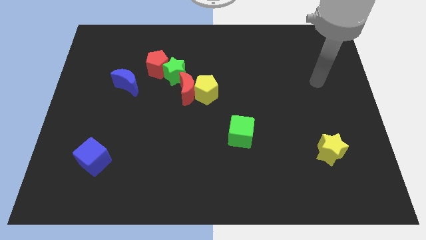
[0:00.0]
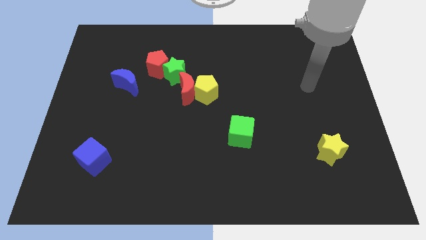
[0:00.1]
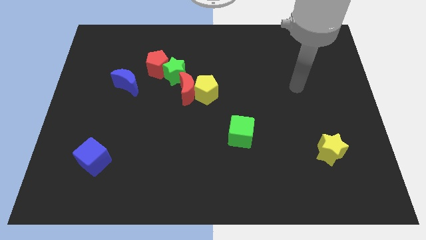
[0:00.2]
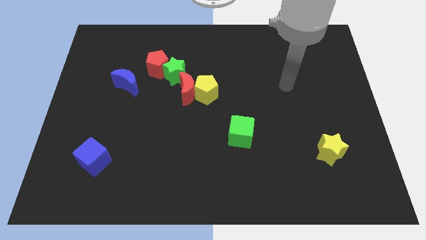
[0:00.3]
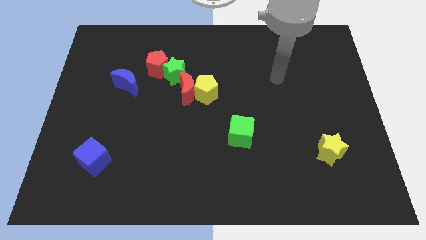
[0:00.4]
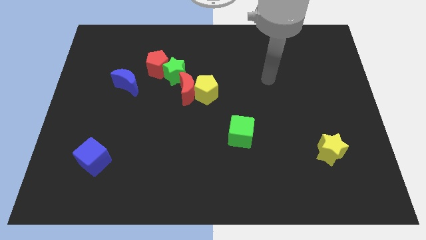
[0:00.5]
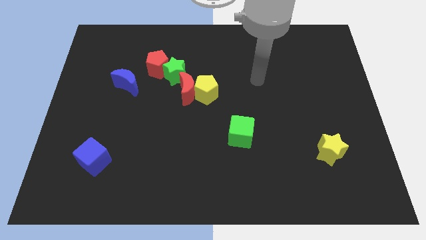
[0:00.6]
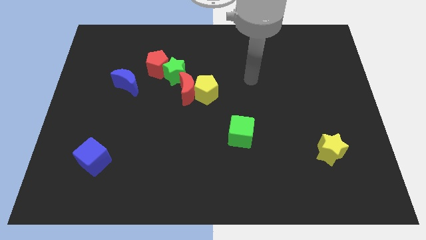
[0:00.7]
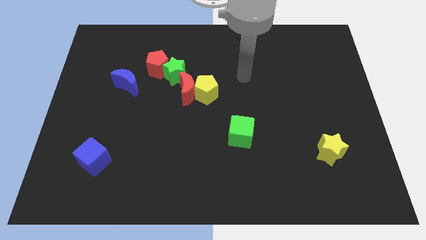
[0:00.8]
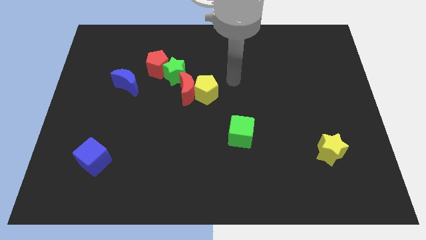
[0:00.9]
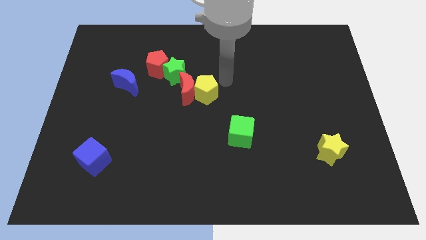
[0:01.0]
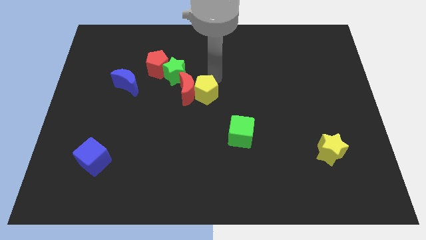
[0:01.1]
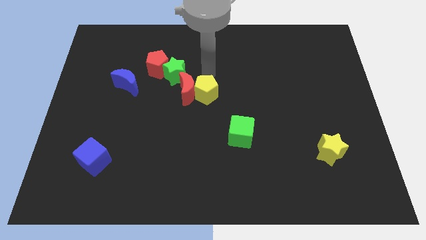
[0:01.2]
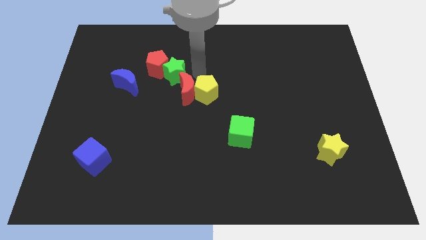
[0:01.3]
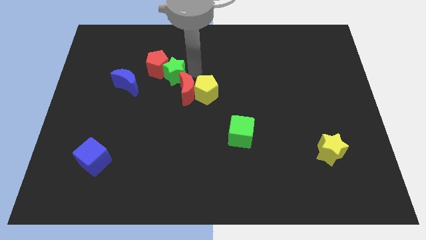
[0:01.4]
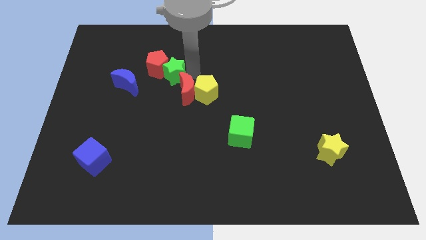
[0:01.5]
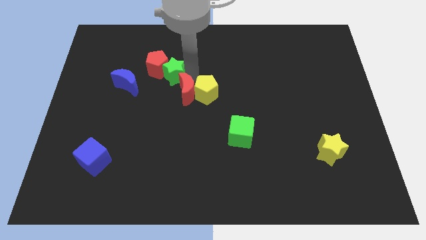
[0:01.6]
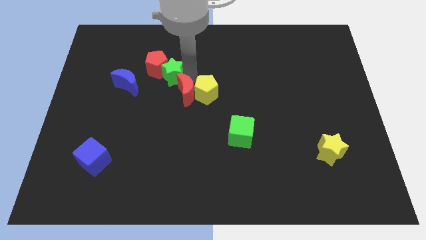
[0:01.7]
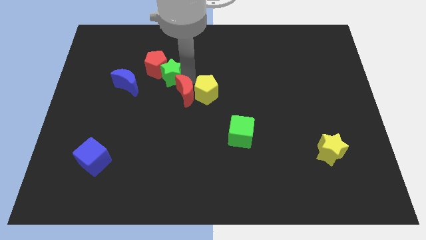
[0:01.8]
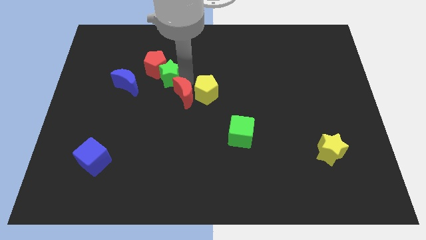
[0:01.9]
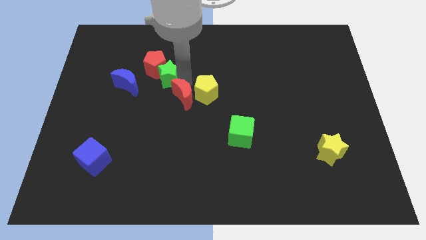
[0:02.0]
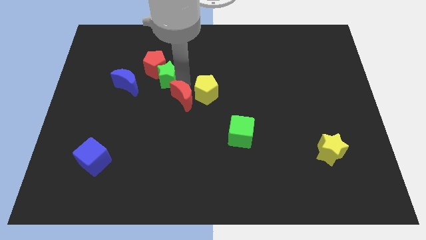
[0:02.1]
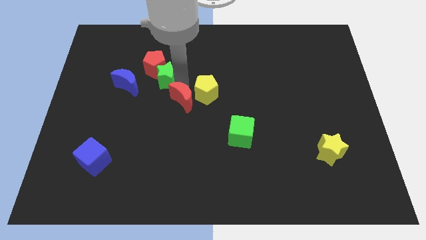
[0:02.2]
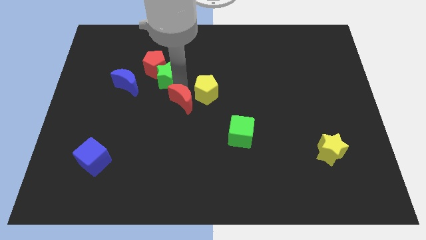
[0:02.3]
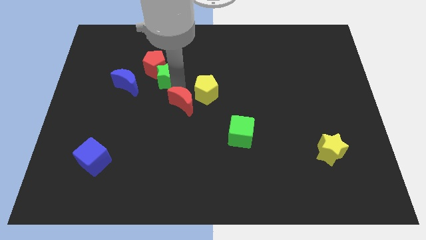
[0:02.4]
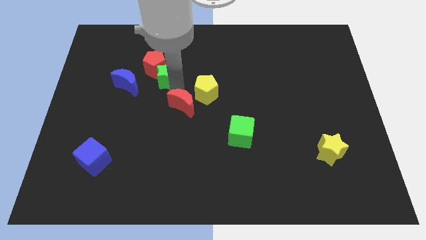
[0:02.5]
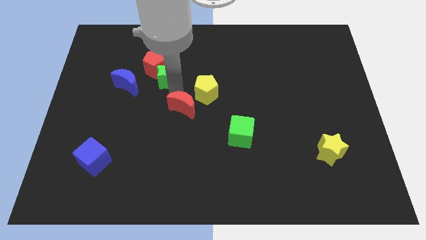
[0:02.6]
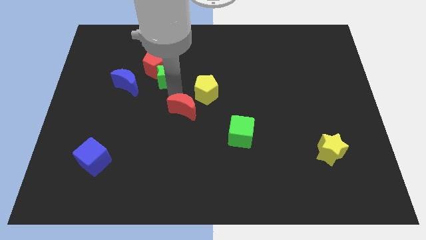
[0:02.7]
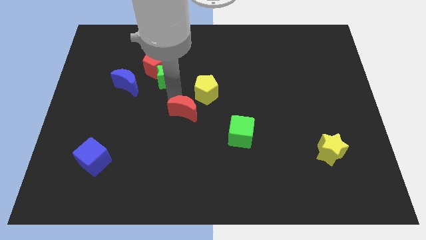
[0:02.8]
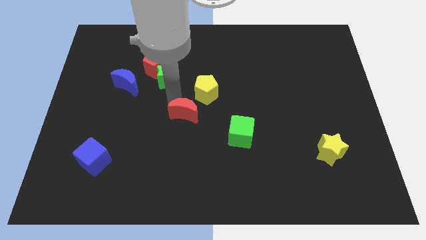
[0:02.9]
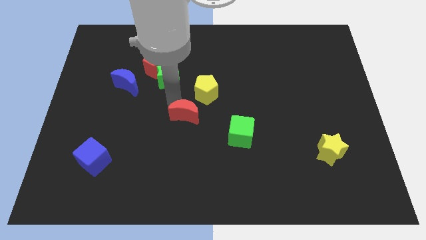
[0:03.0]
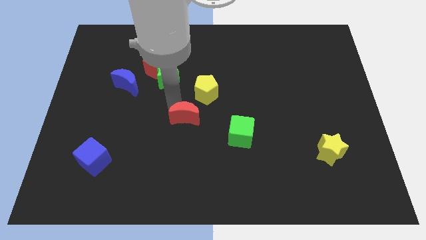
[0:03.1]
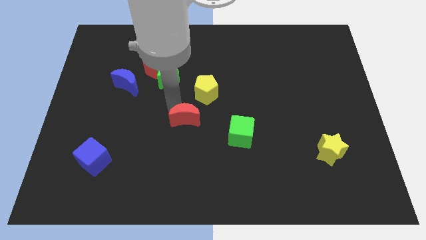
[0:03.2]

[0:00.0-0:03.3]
separate the red moon from the yellow pentagon and green star

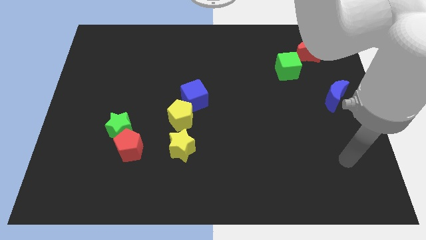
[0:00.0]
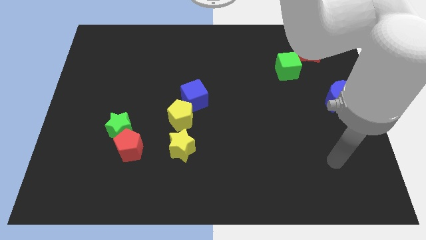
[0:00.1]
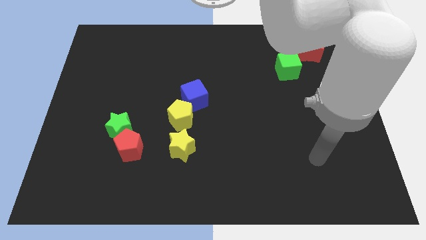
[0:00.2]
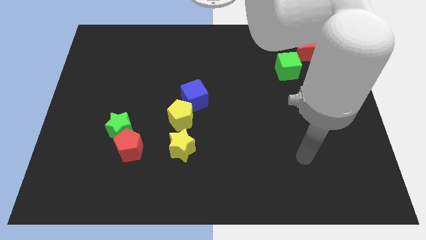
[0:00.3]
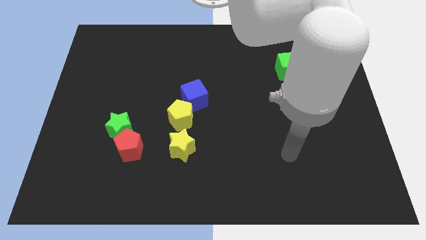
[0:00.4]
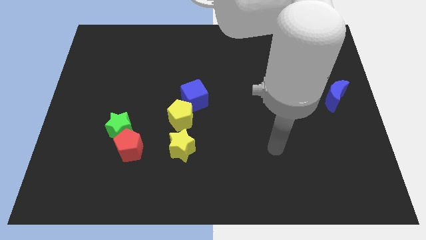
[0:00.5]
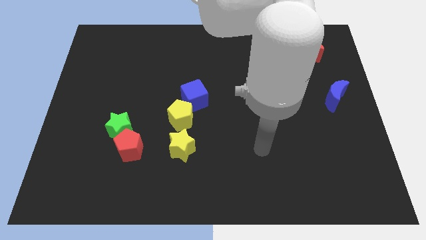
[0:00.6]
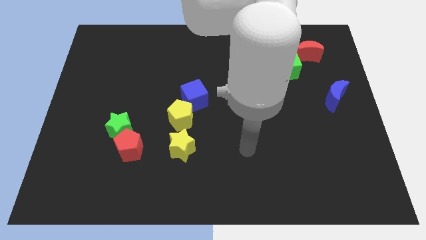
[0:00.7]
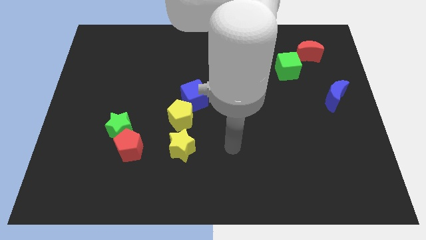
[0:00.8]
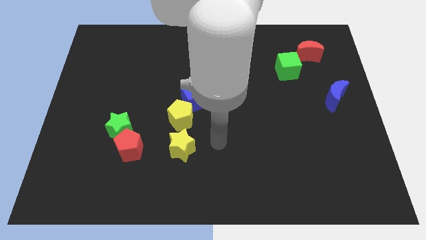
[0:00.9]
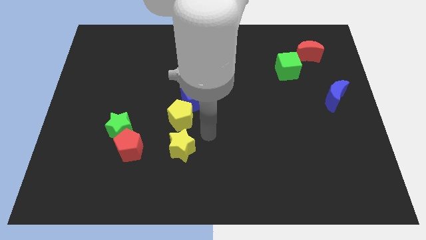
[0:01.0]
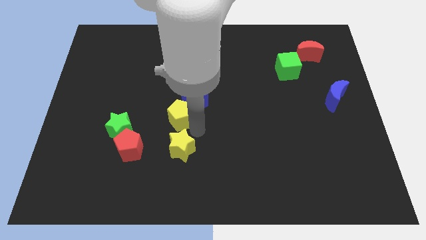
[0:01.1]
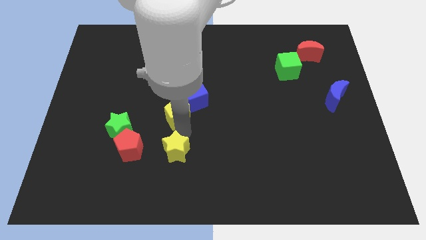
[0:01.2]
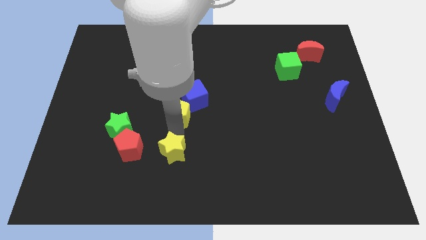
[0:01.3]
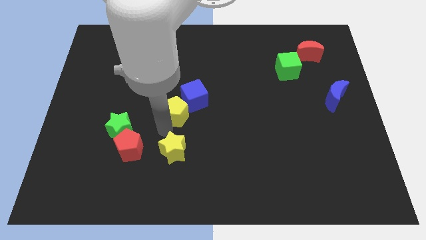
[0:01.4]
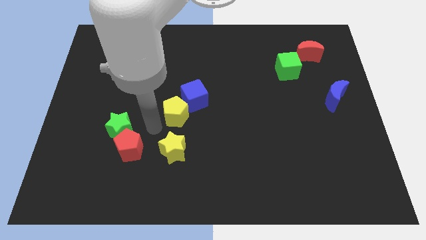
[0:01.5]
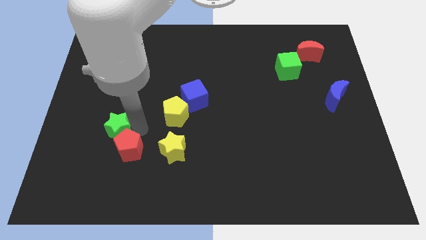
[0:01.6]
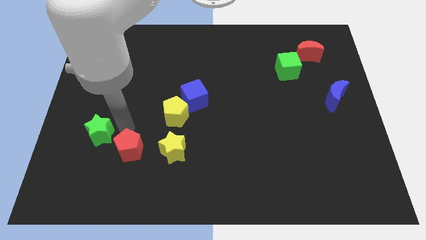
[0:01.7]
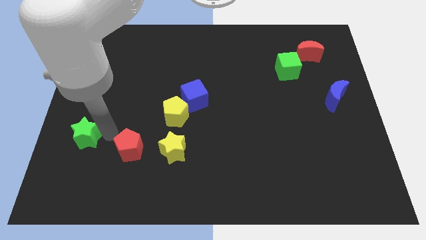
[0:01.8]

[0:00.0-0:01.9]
separate the red pentagon from the green star

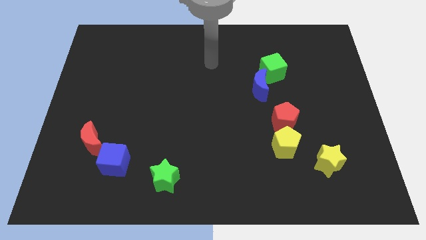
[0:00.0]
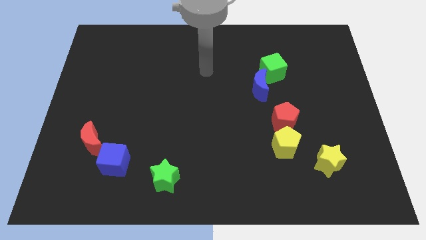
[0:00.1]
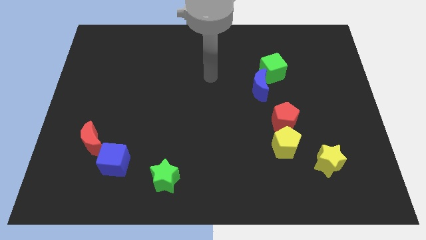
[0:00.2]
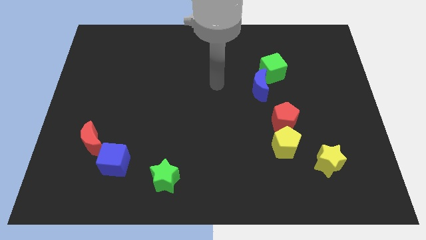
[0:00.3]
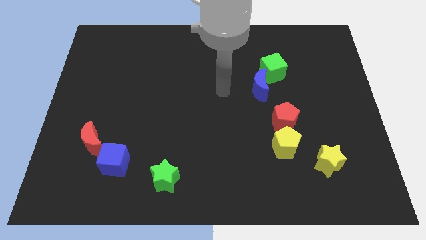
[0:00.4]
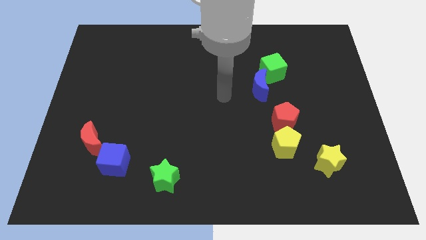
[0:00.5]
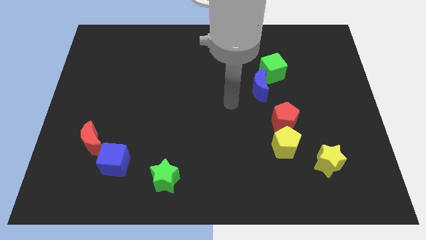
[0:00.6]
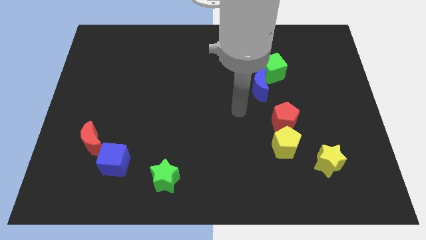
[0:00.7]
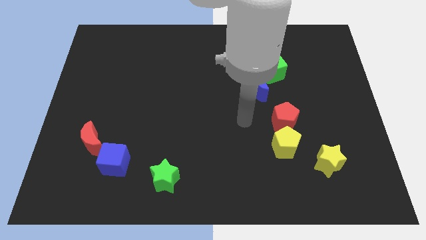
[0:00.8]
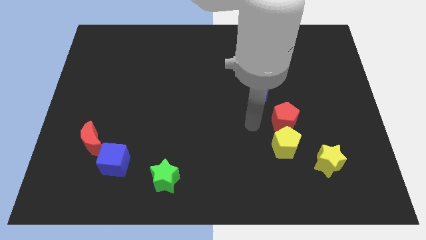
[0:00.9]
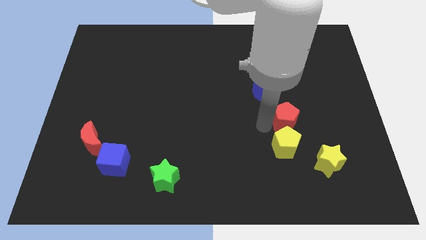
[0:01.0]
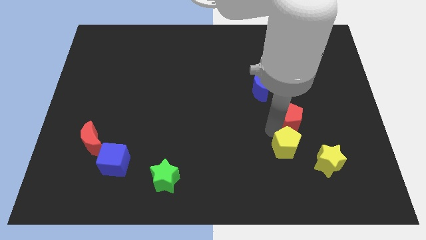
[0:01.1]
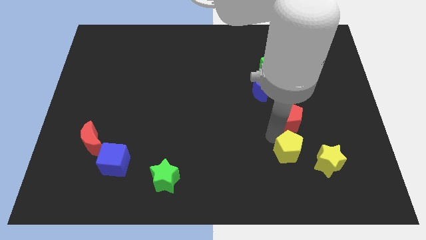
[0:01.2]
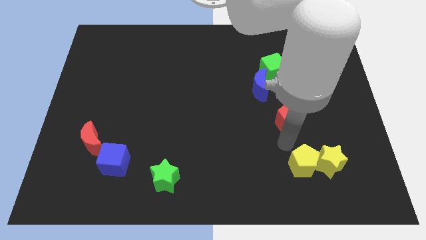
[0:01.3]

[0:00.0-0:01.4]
pull the red pentagon apart from the yellow pentagon

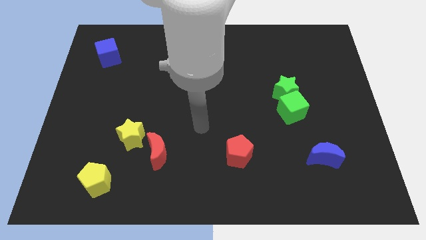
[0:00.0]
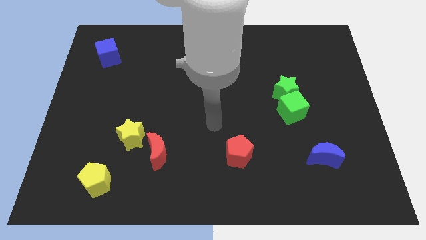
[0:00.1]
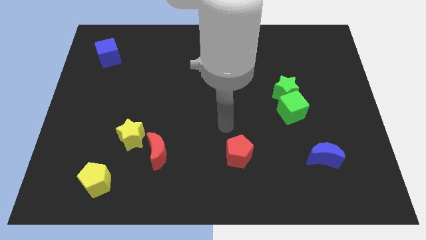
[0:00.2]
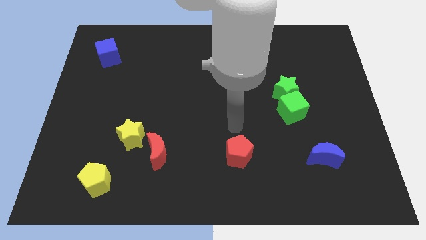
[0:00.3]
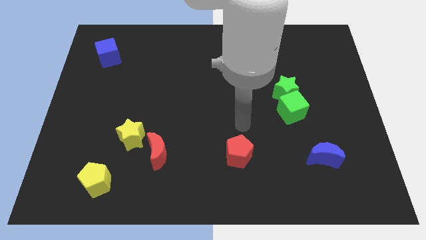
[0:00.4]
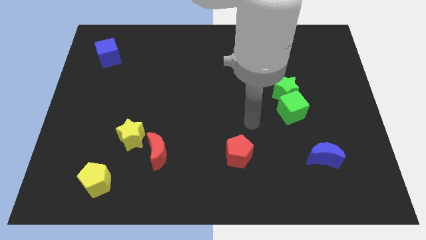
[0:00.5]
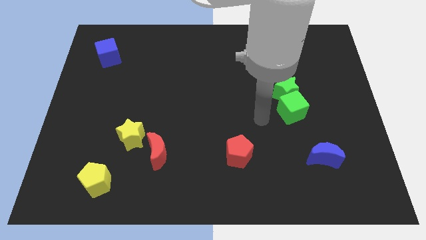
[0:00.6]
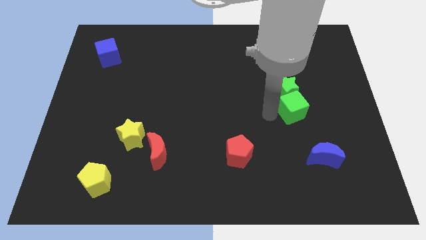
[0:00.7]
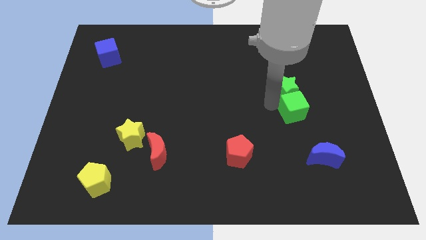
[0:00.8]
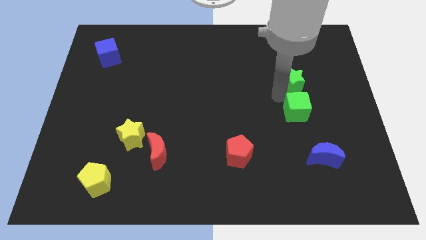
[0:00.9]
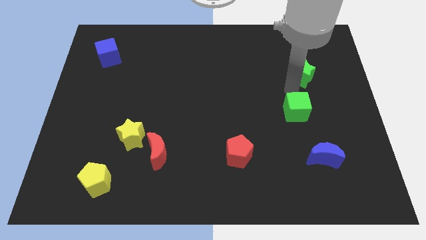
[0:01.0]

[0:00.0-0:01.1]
separate the green cube from the green star

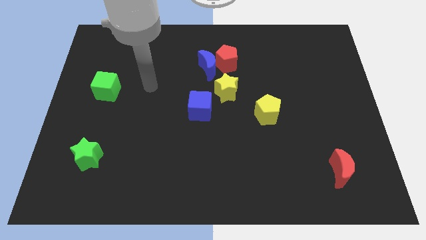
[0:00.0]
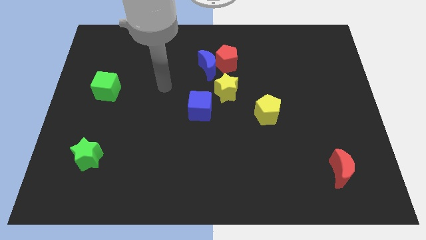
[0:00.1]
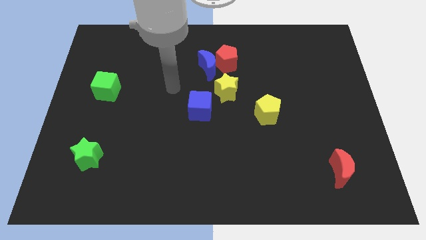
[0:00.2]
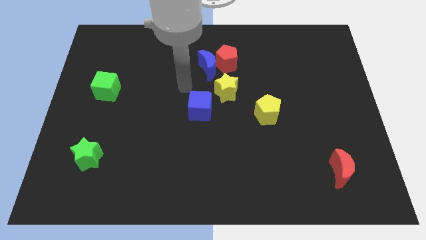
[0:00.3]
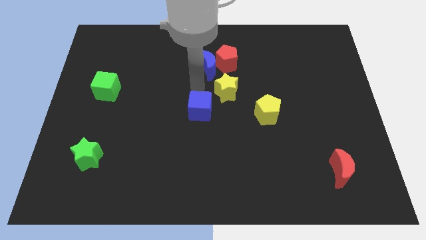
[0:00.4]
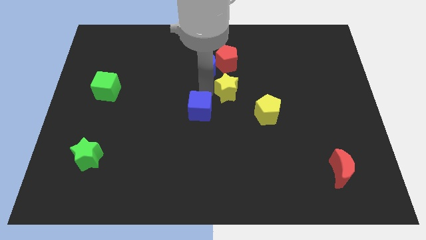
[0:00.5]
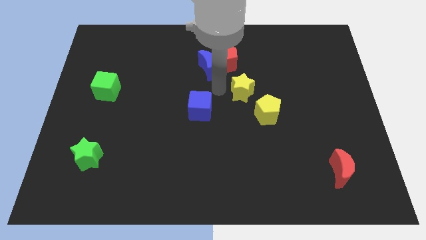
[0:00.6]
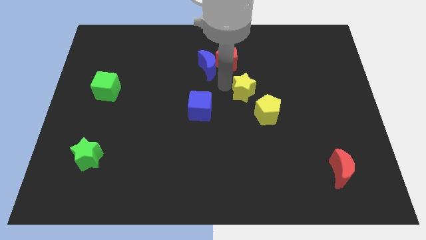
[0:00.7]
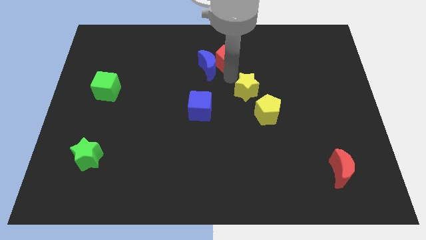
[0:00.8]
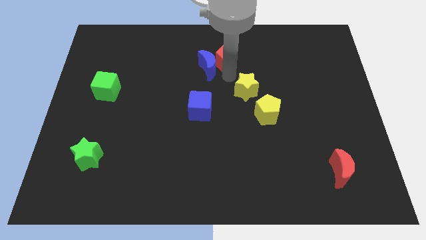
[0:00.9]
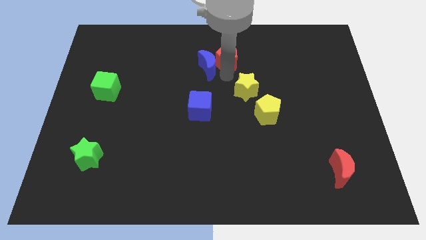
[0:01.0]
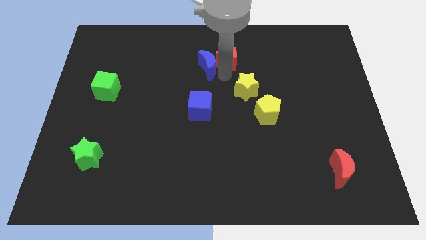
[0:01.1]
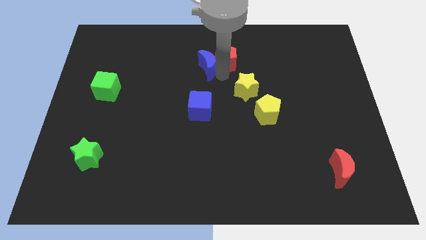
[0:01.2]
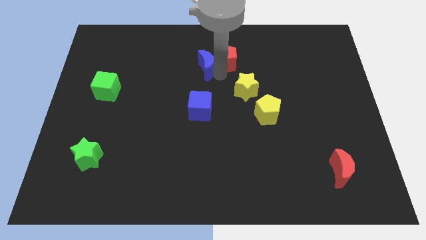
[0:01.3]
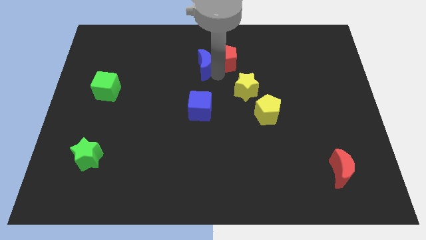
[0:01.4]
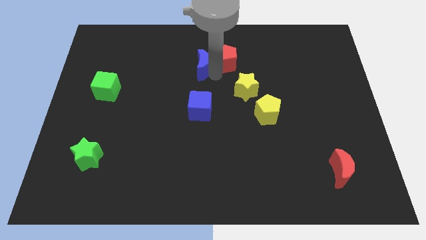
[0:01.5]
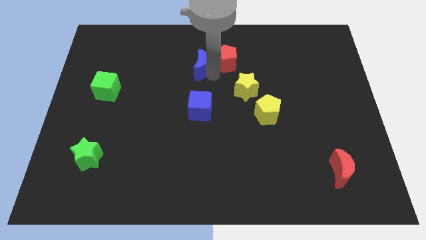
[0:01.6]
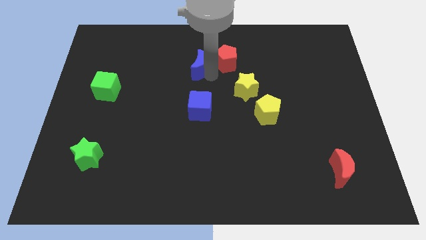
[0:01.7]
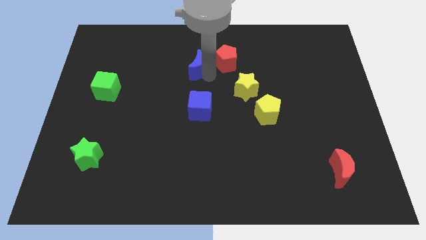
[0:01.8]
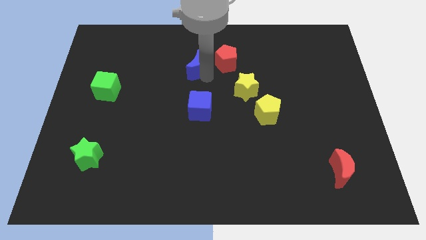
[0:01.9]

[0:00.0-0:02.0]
separate the blue moon from the red pentagon and yellow star
